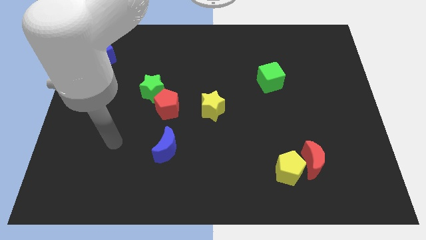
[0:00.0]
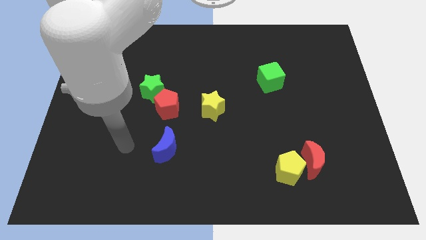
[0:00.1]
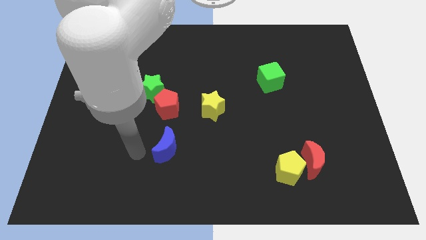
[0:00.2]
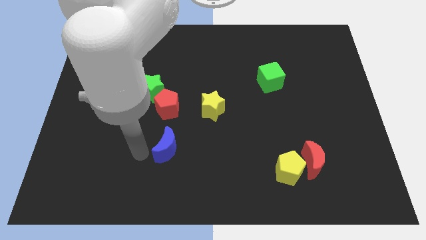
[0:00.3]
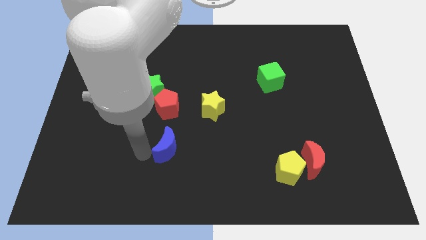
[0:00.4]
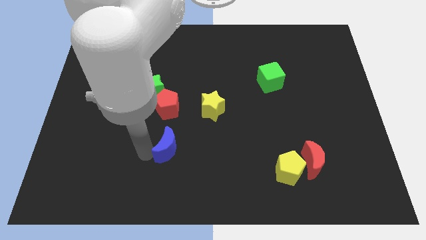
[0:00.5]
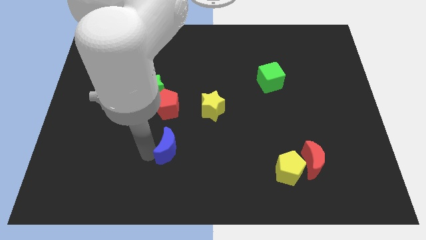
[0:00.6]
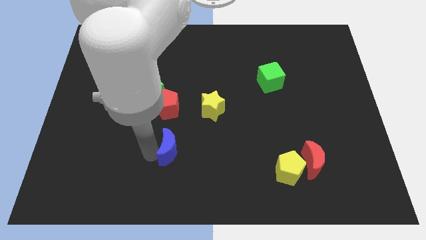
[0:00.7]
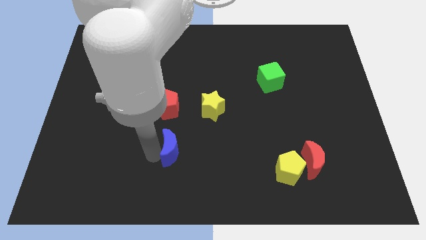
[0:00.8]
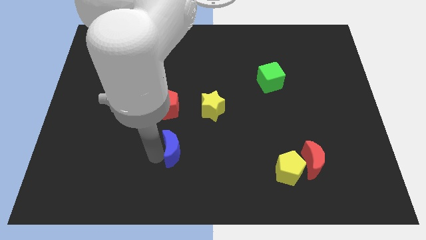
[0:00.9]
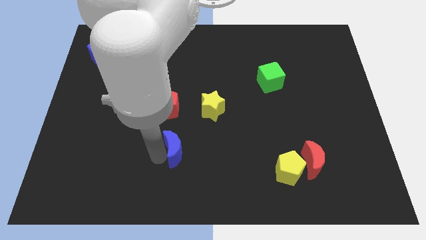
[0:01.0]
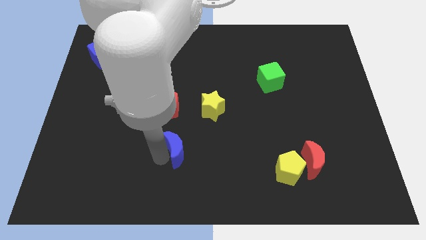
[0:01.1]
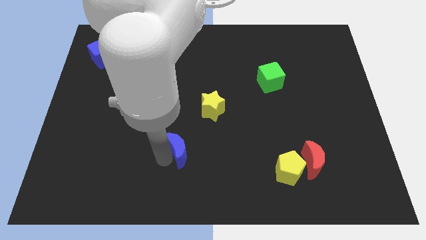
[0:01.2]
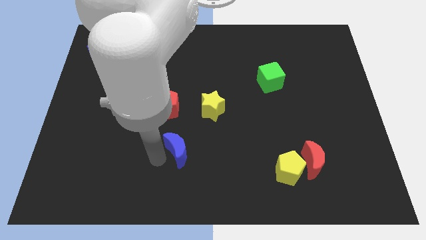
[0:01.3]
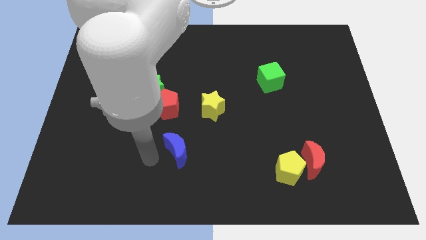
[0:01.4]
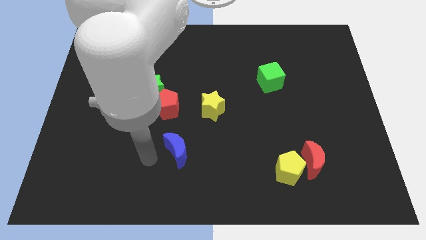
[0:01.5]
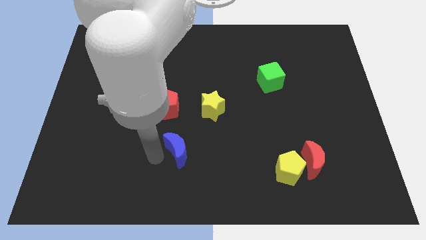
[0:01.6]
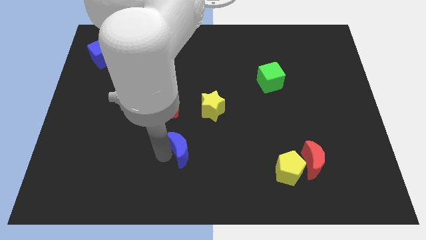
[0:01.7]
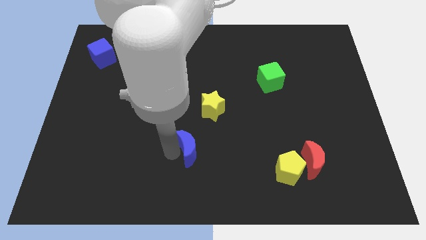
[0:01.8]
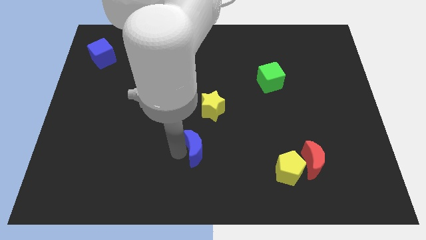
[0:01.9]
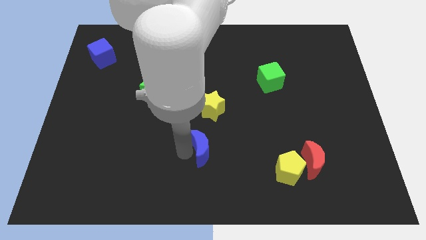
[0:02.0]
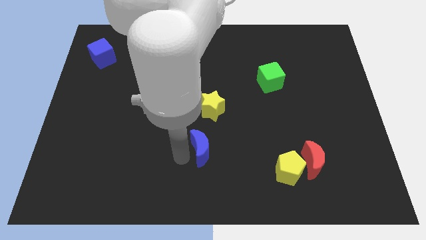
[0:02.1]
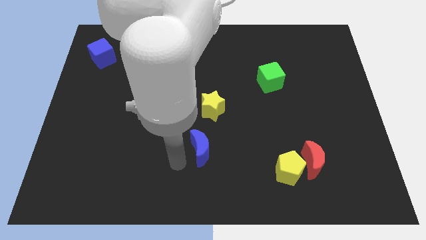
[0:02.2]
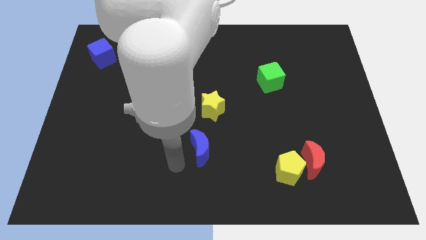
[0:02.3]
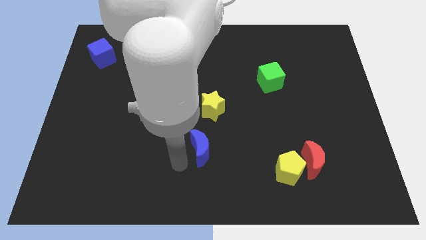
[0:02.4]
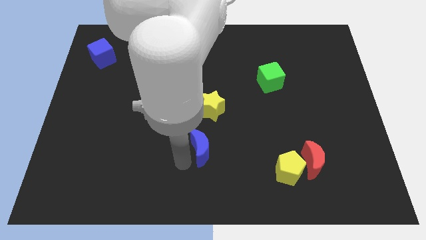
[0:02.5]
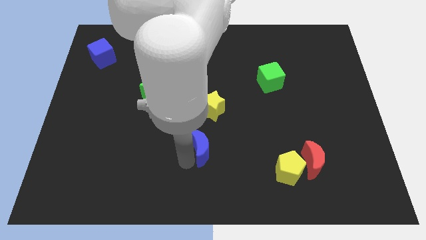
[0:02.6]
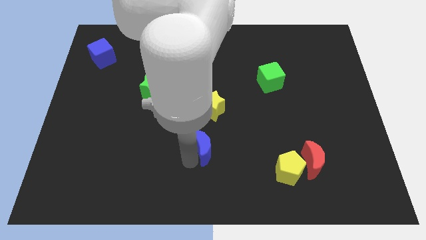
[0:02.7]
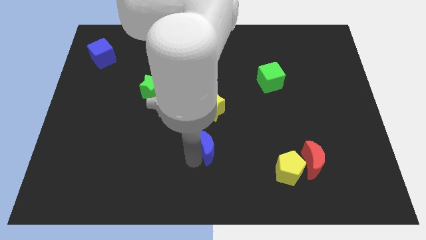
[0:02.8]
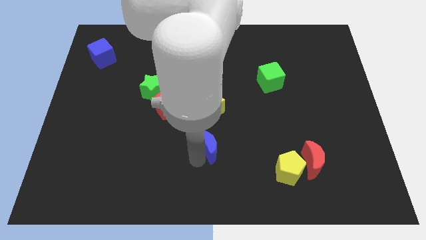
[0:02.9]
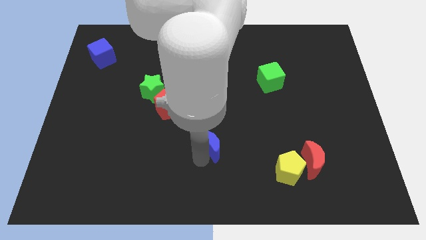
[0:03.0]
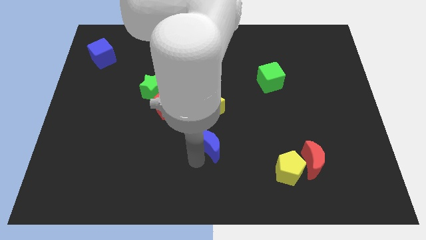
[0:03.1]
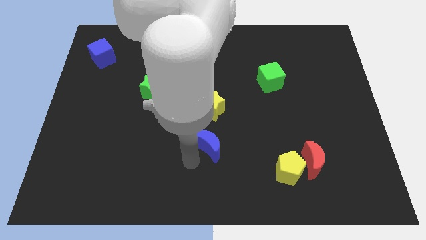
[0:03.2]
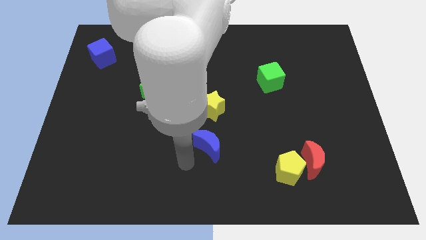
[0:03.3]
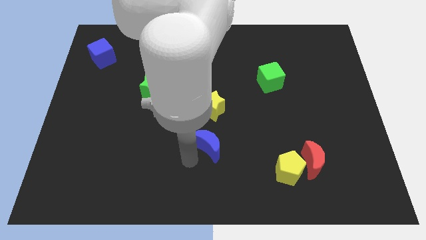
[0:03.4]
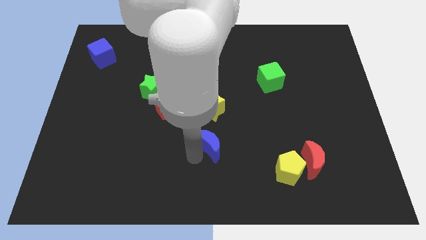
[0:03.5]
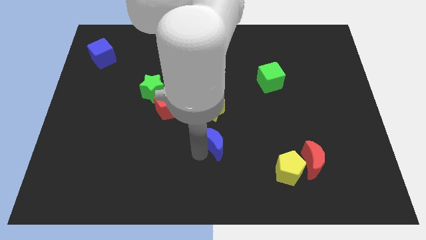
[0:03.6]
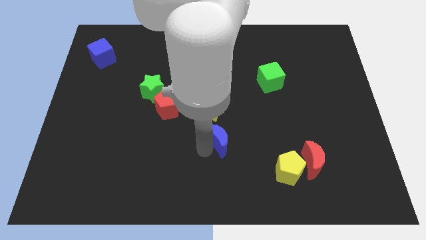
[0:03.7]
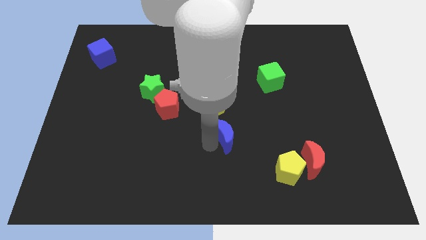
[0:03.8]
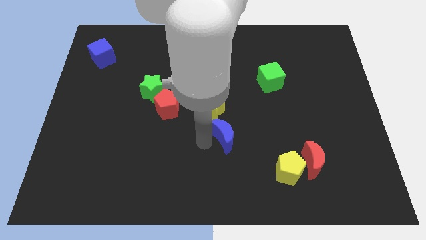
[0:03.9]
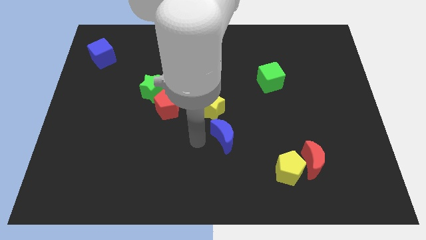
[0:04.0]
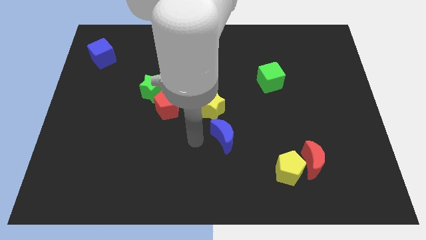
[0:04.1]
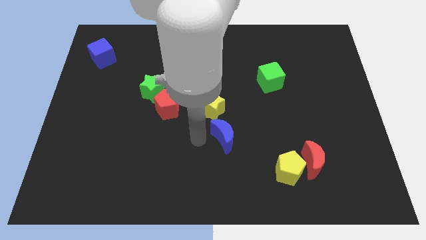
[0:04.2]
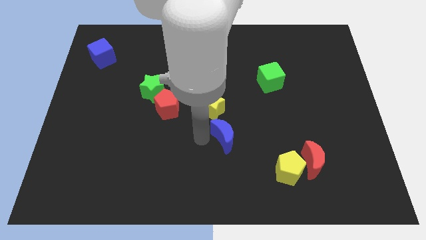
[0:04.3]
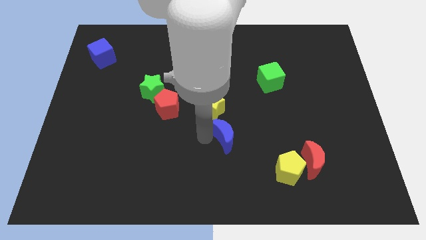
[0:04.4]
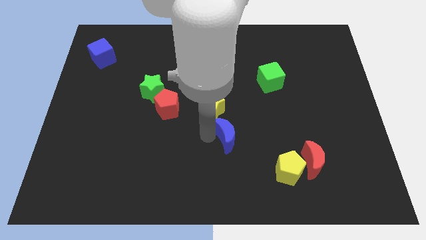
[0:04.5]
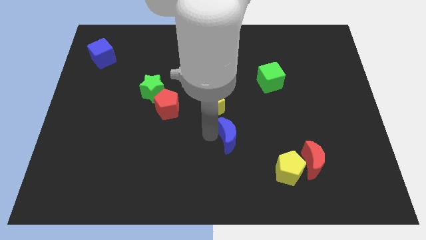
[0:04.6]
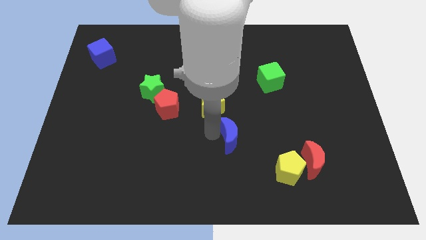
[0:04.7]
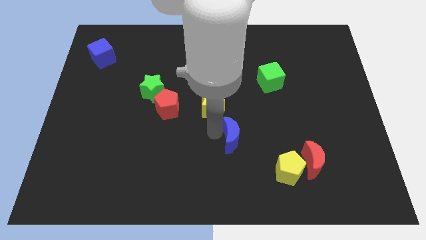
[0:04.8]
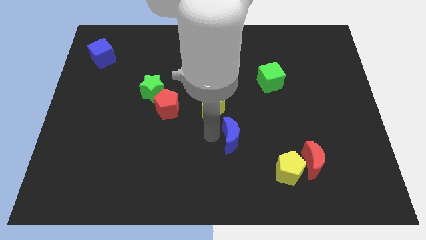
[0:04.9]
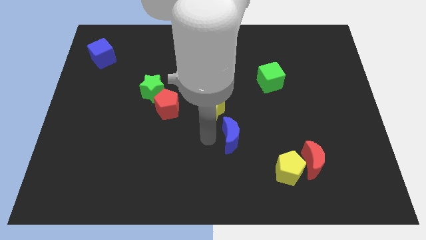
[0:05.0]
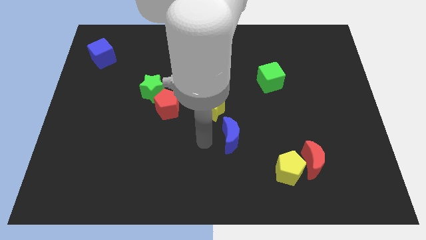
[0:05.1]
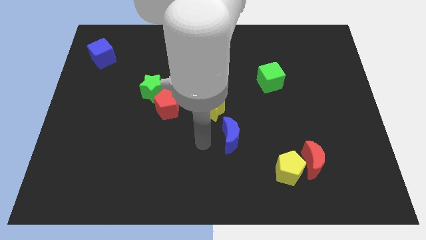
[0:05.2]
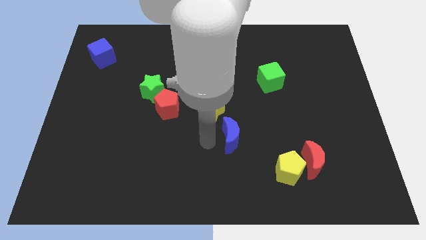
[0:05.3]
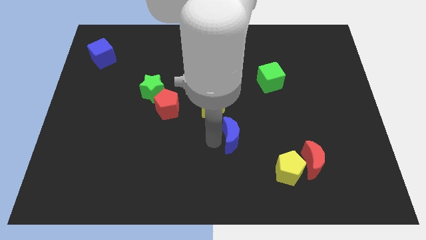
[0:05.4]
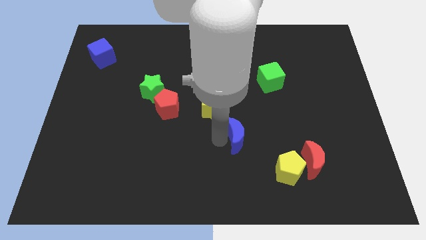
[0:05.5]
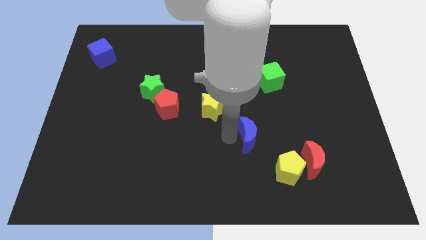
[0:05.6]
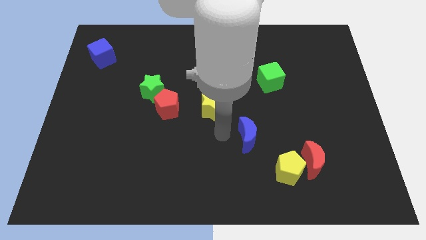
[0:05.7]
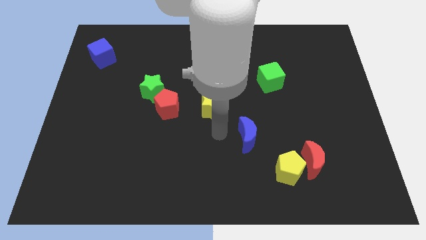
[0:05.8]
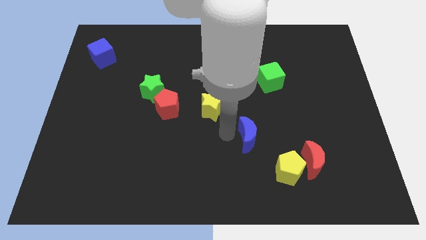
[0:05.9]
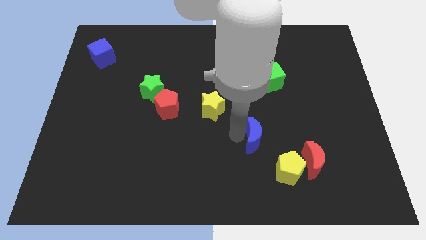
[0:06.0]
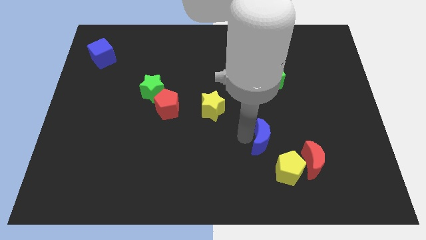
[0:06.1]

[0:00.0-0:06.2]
put the blue moon diagonally up and to the left of the red moon
